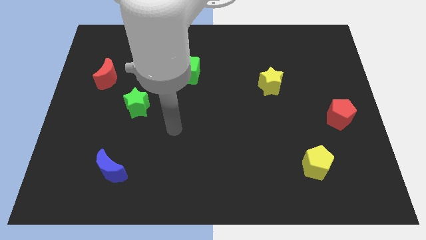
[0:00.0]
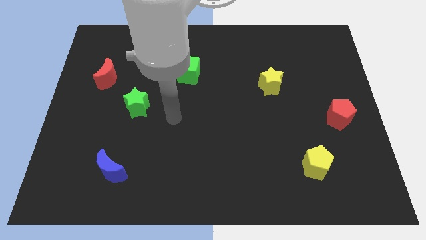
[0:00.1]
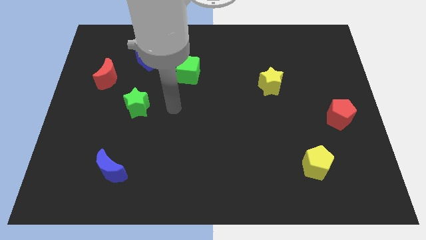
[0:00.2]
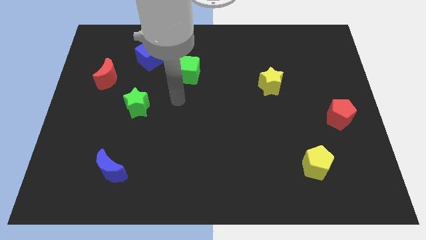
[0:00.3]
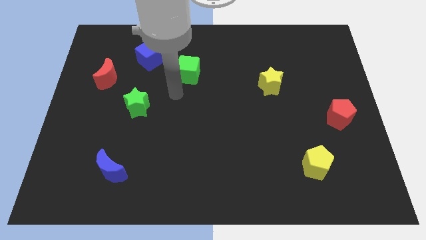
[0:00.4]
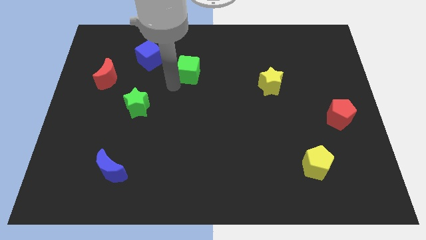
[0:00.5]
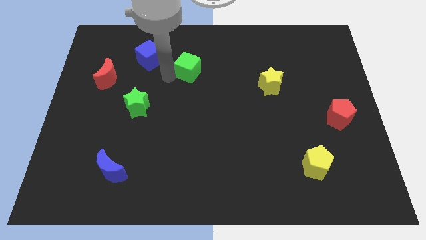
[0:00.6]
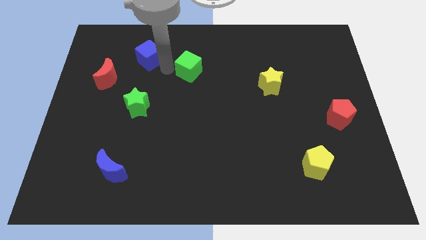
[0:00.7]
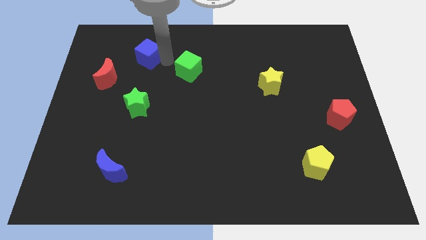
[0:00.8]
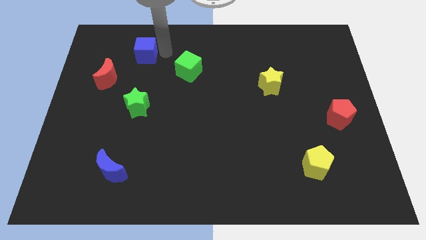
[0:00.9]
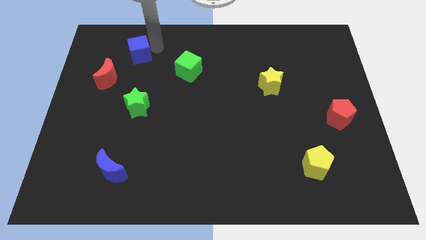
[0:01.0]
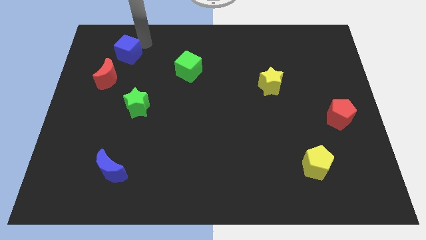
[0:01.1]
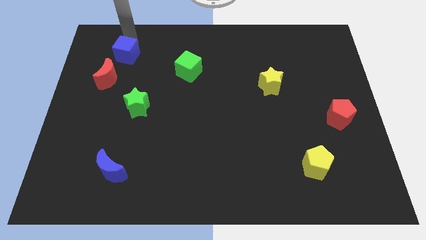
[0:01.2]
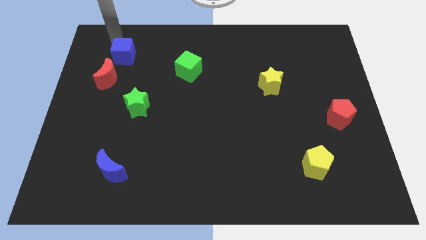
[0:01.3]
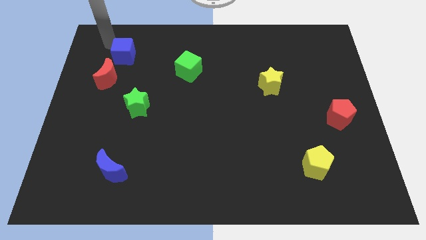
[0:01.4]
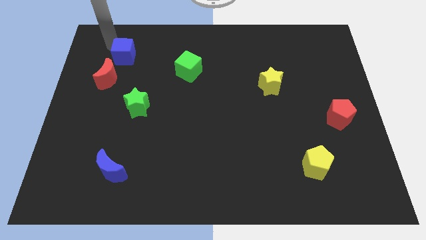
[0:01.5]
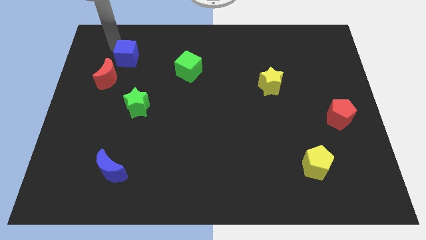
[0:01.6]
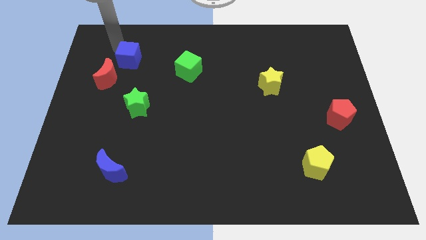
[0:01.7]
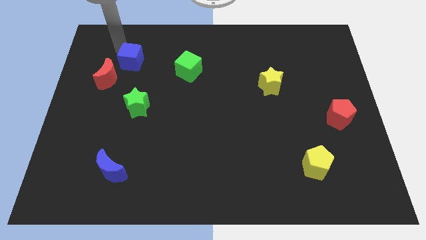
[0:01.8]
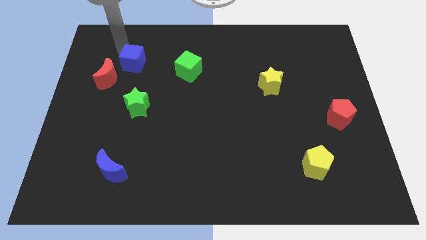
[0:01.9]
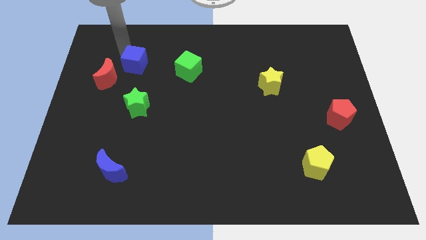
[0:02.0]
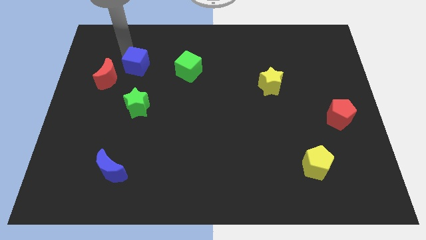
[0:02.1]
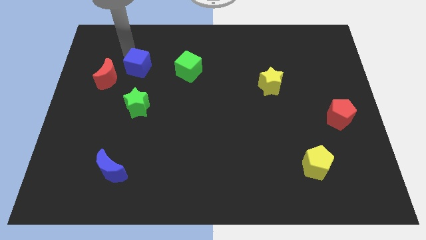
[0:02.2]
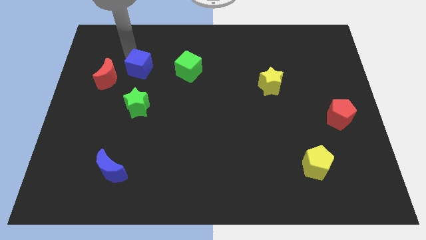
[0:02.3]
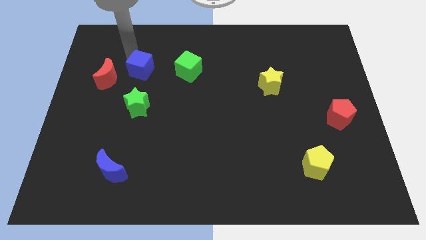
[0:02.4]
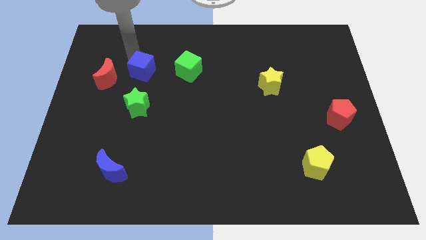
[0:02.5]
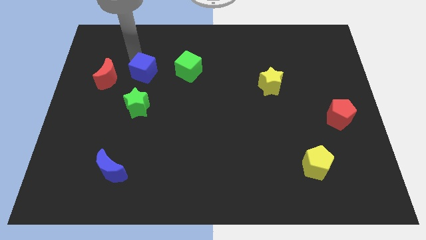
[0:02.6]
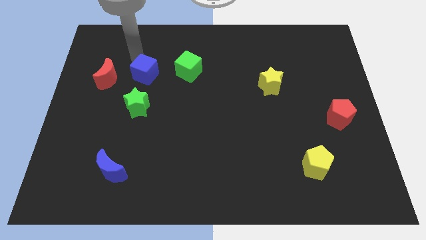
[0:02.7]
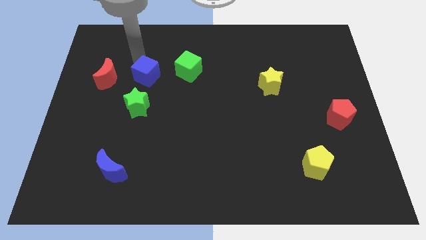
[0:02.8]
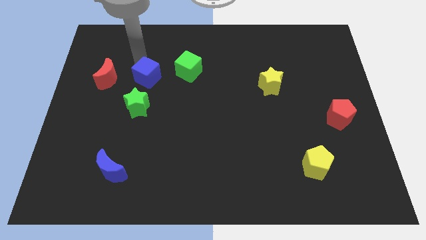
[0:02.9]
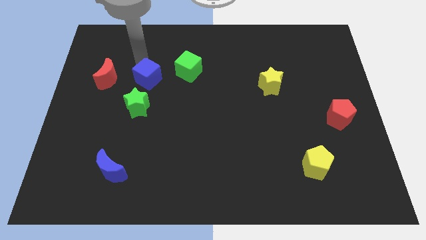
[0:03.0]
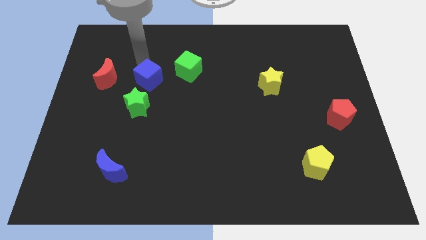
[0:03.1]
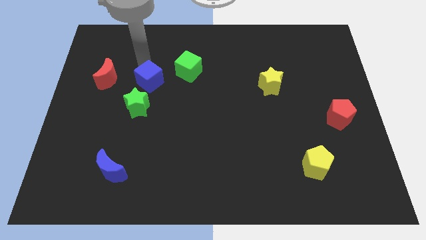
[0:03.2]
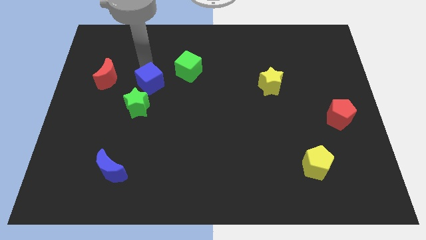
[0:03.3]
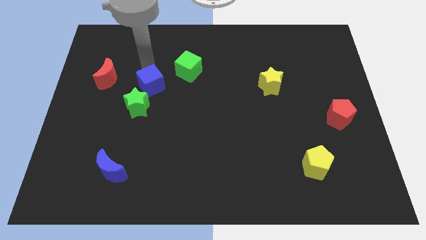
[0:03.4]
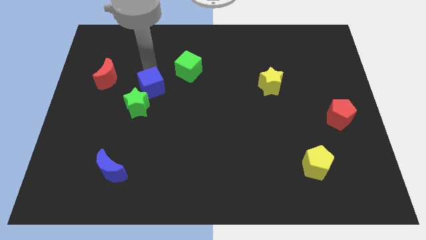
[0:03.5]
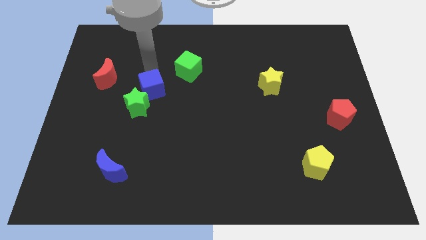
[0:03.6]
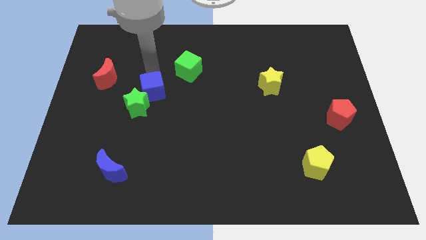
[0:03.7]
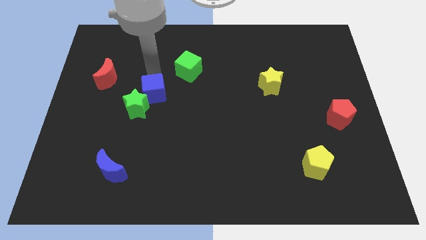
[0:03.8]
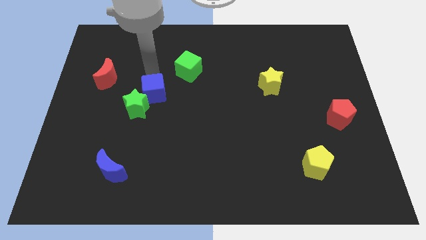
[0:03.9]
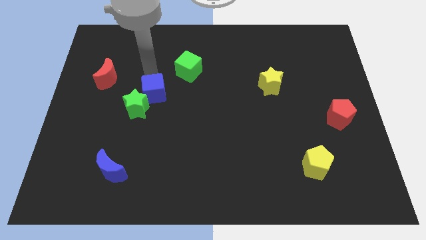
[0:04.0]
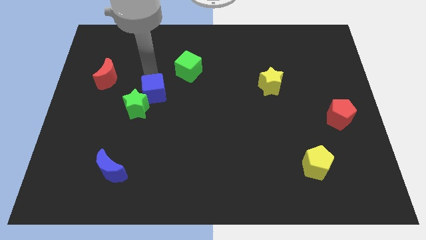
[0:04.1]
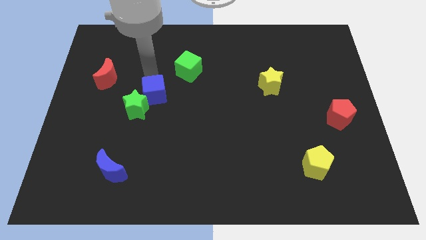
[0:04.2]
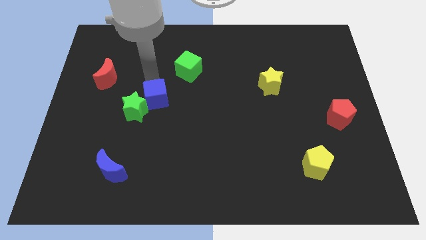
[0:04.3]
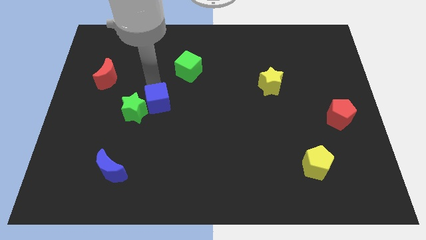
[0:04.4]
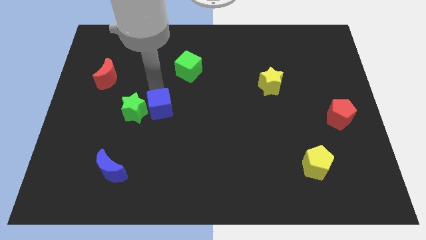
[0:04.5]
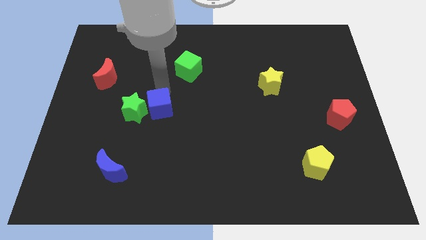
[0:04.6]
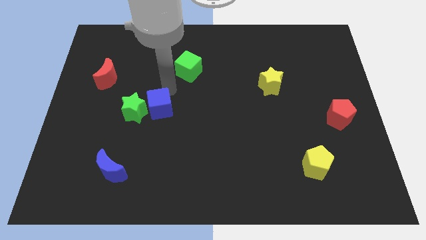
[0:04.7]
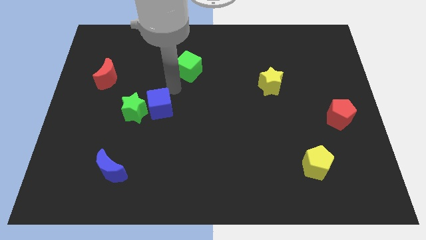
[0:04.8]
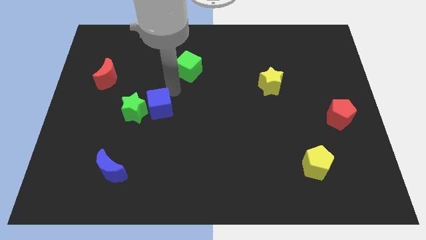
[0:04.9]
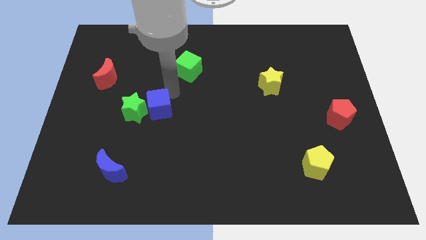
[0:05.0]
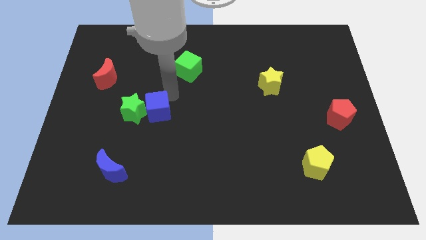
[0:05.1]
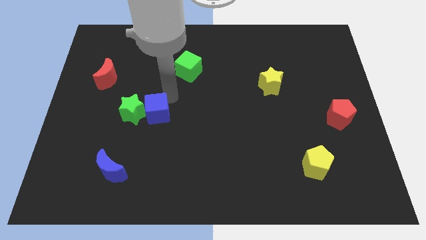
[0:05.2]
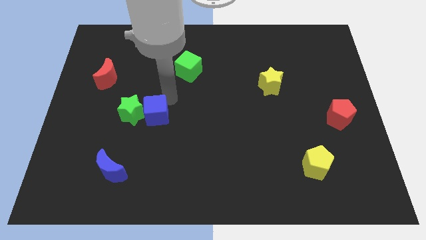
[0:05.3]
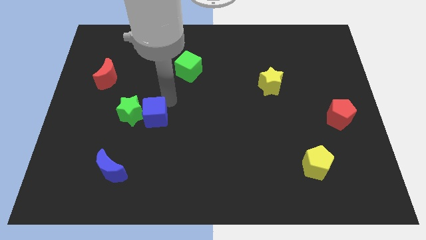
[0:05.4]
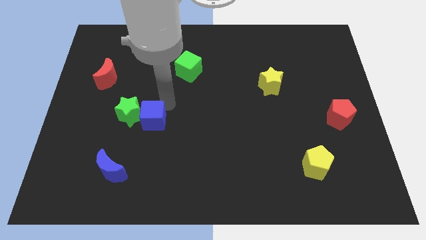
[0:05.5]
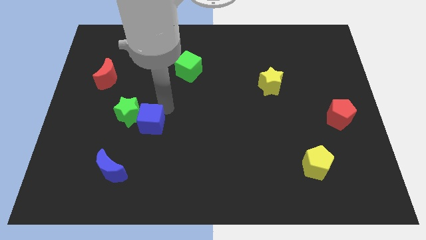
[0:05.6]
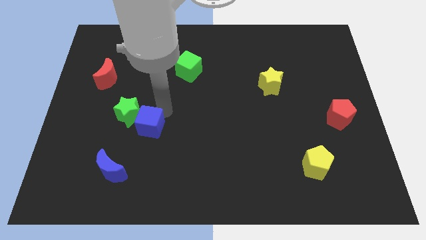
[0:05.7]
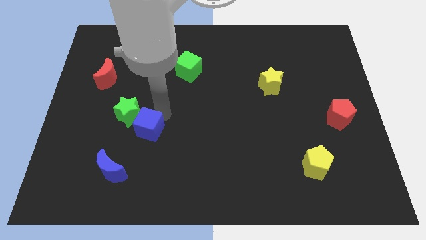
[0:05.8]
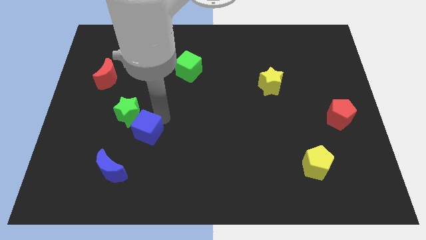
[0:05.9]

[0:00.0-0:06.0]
slide the blue cube below the green star
